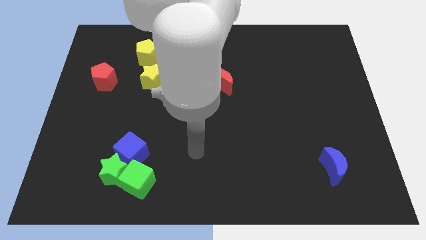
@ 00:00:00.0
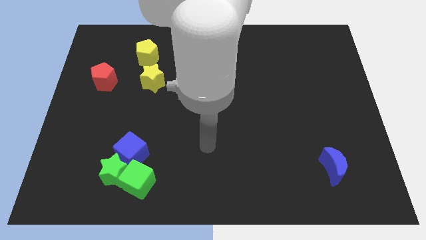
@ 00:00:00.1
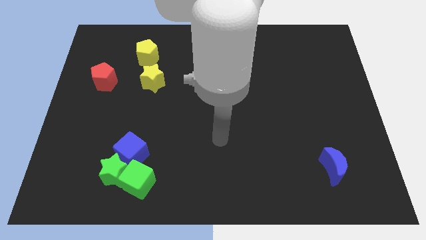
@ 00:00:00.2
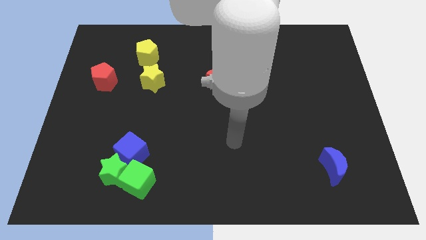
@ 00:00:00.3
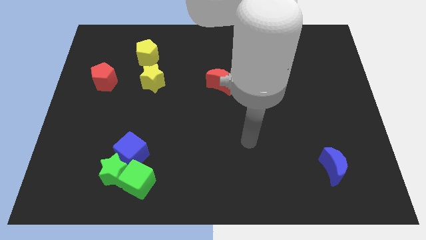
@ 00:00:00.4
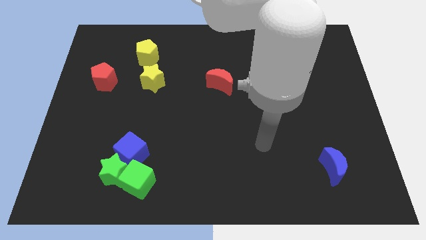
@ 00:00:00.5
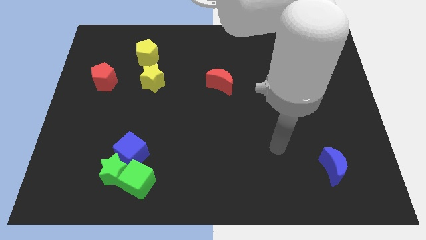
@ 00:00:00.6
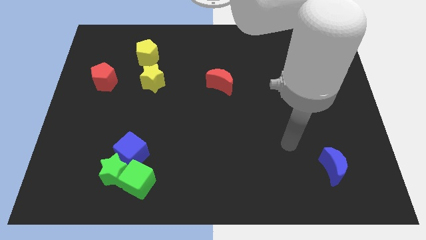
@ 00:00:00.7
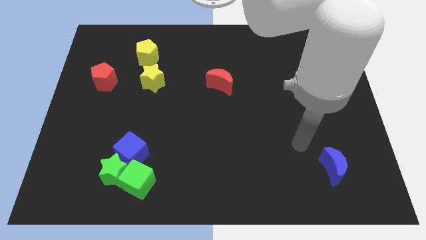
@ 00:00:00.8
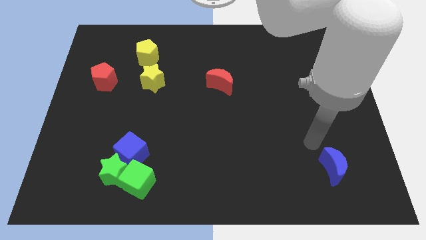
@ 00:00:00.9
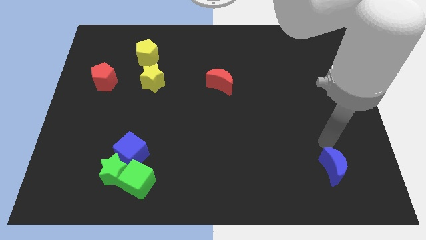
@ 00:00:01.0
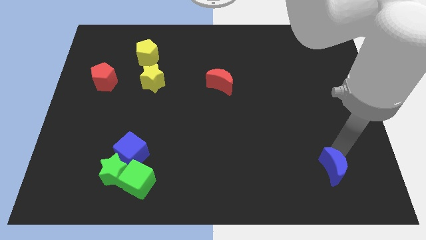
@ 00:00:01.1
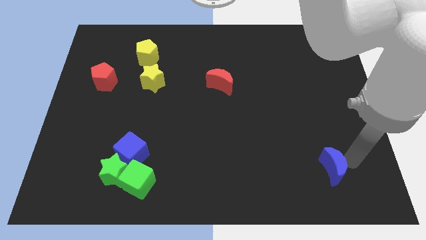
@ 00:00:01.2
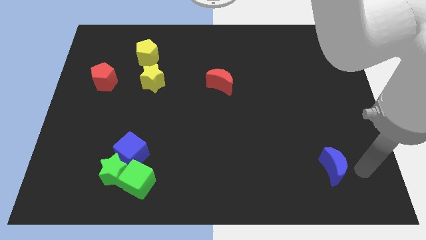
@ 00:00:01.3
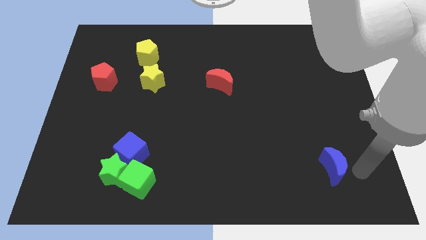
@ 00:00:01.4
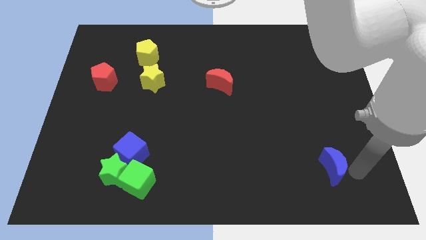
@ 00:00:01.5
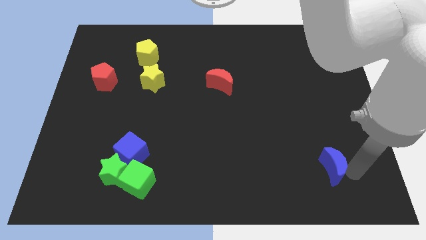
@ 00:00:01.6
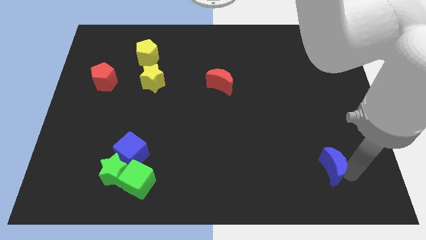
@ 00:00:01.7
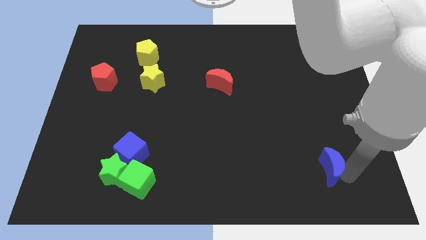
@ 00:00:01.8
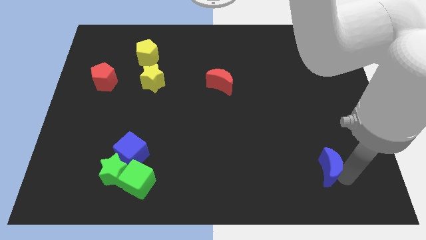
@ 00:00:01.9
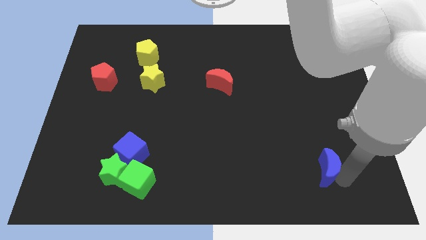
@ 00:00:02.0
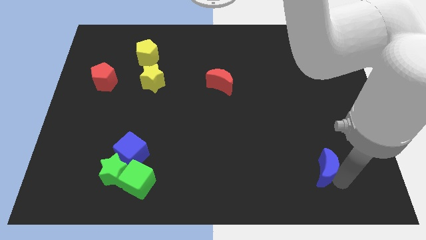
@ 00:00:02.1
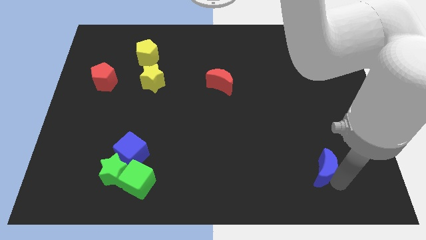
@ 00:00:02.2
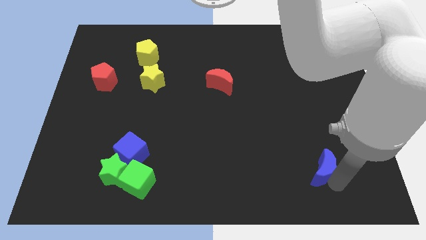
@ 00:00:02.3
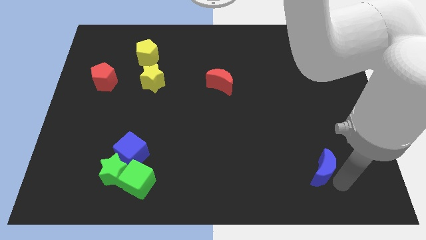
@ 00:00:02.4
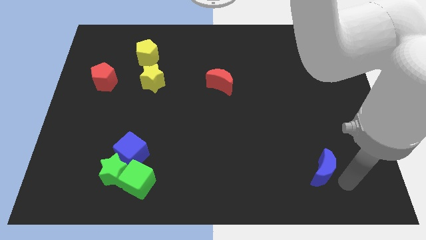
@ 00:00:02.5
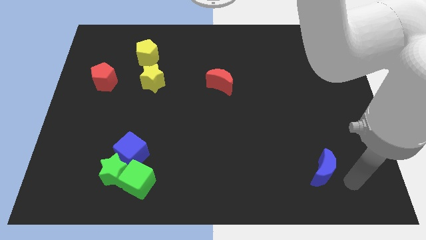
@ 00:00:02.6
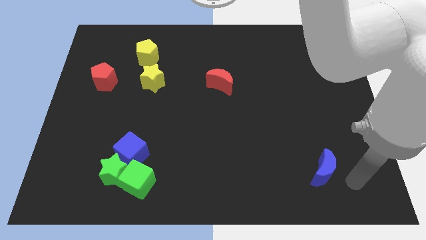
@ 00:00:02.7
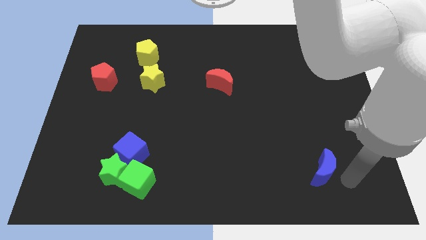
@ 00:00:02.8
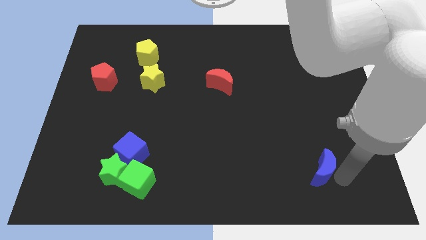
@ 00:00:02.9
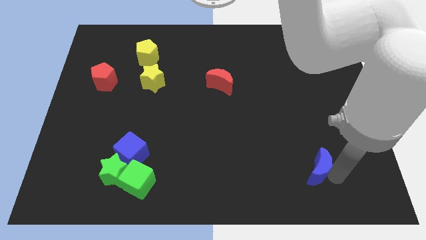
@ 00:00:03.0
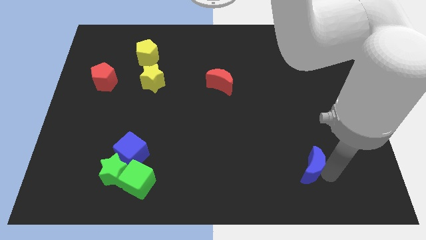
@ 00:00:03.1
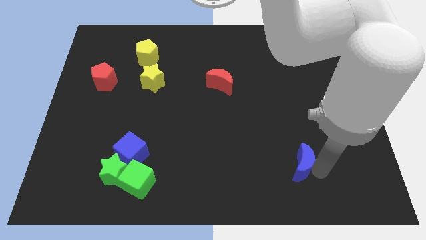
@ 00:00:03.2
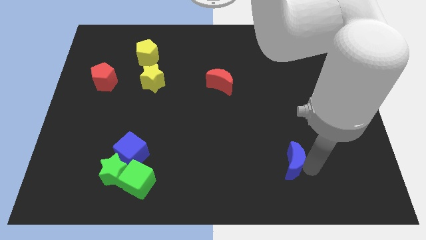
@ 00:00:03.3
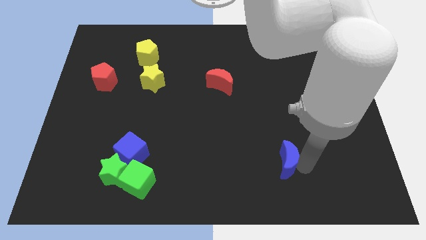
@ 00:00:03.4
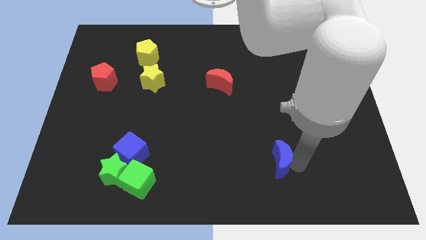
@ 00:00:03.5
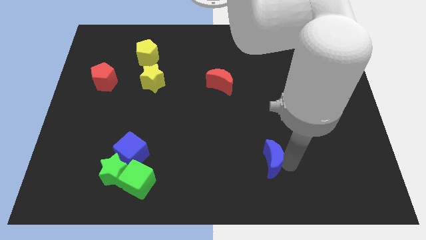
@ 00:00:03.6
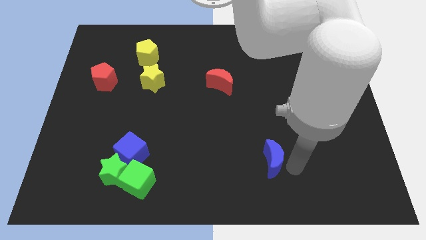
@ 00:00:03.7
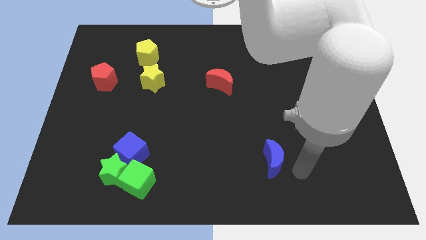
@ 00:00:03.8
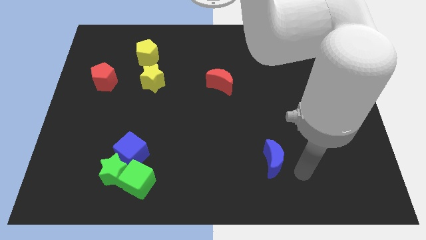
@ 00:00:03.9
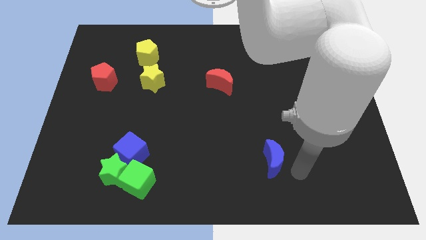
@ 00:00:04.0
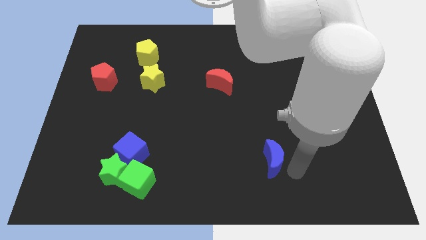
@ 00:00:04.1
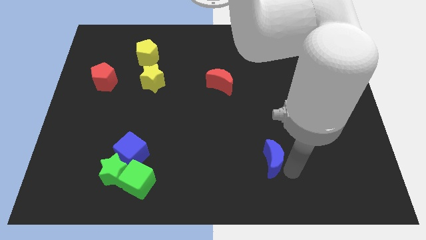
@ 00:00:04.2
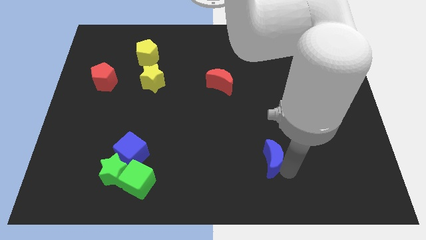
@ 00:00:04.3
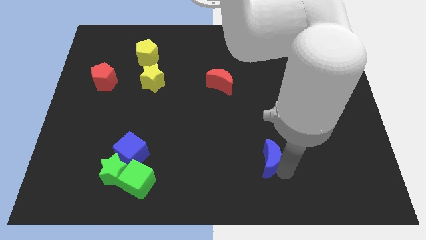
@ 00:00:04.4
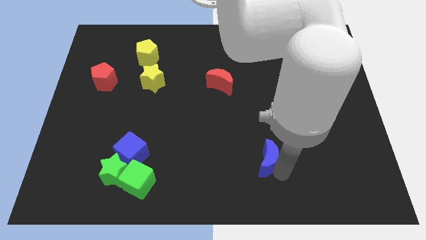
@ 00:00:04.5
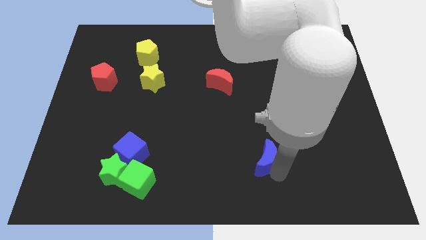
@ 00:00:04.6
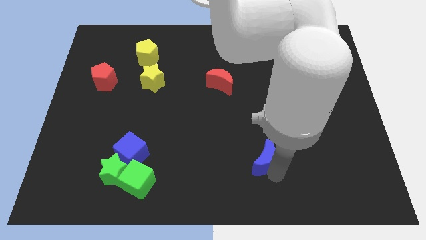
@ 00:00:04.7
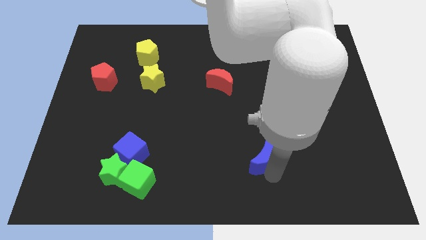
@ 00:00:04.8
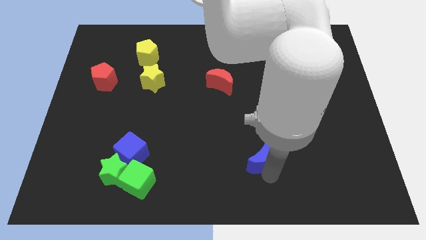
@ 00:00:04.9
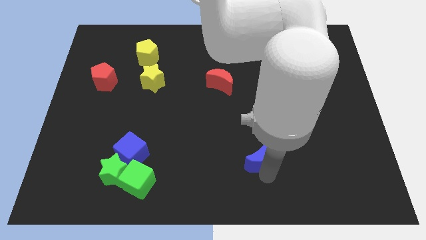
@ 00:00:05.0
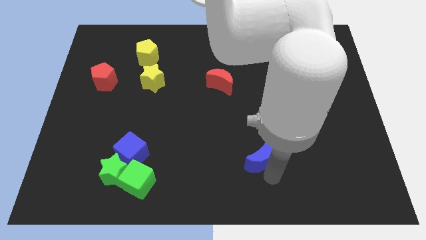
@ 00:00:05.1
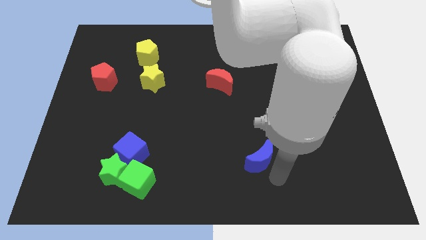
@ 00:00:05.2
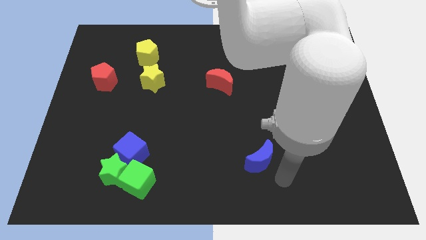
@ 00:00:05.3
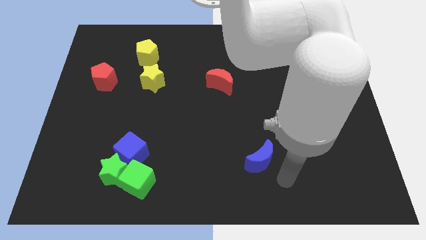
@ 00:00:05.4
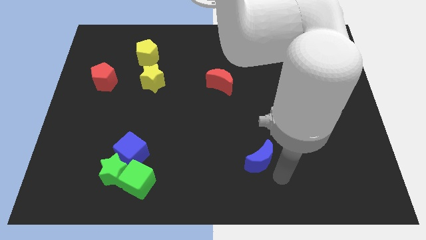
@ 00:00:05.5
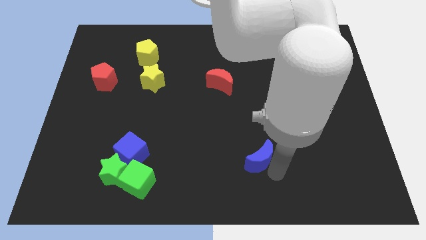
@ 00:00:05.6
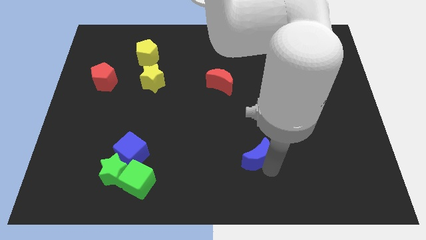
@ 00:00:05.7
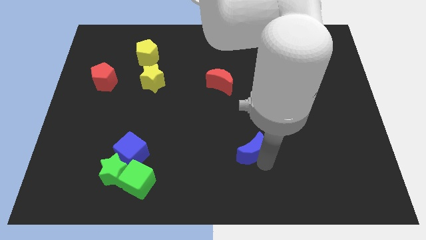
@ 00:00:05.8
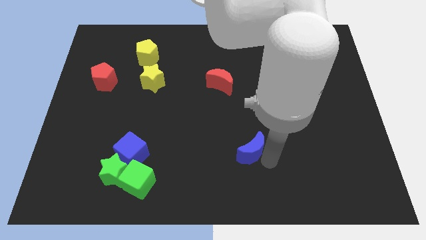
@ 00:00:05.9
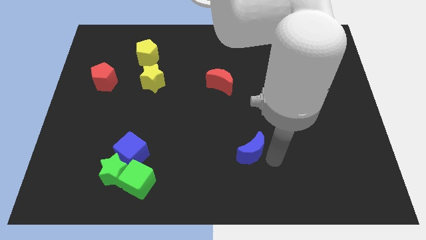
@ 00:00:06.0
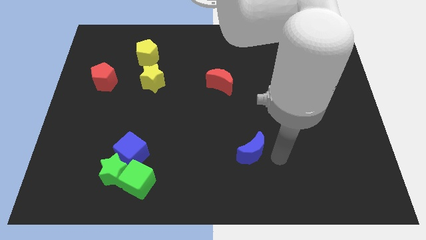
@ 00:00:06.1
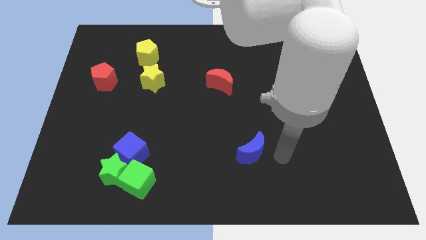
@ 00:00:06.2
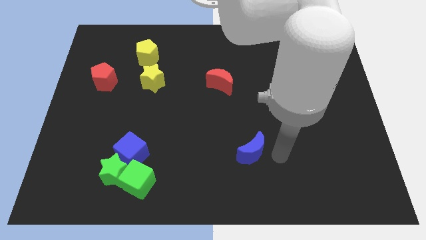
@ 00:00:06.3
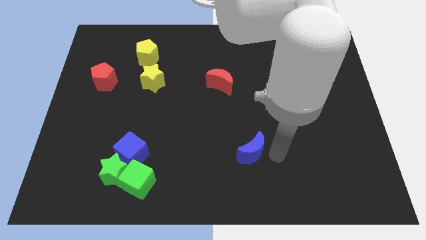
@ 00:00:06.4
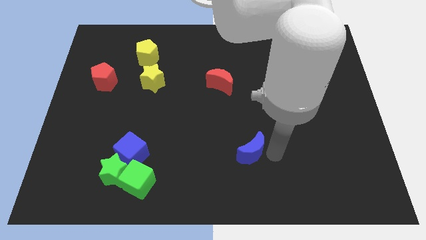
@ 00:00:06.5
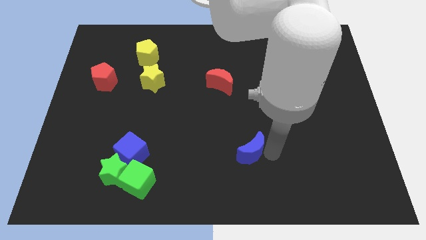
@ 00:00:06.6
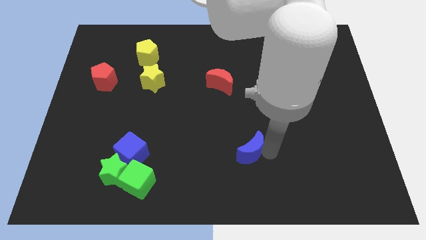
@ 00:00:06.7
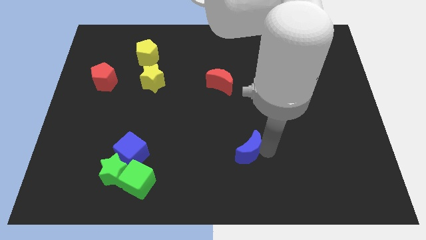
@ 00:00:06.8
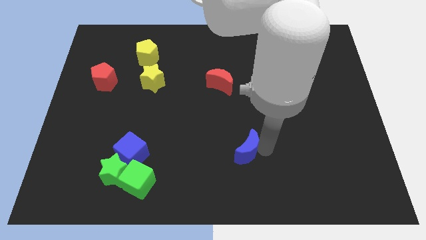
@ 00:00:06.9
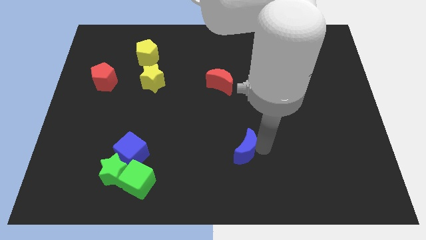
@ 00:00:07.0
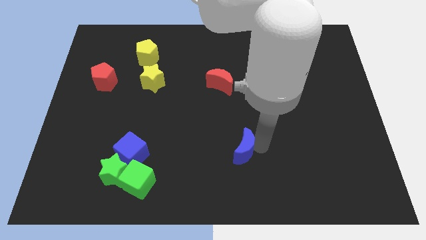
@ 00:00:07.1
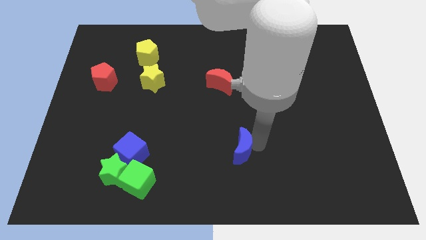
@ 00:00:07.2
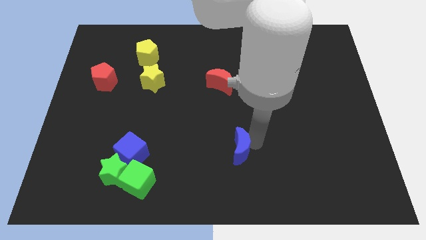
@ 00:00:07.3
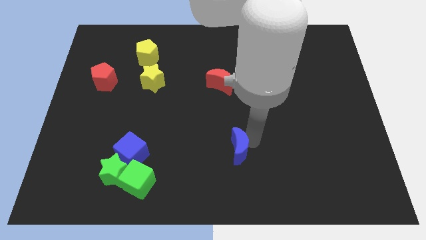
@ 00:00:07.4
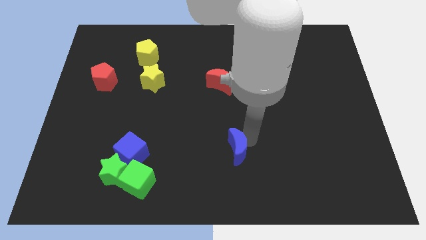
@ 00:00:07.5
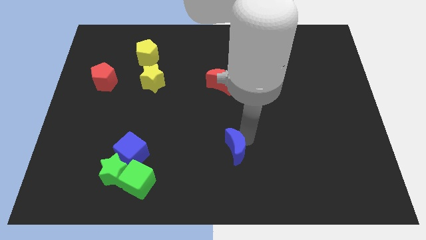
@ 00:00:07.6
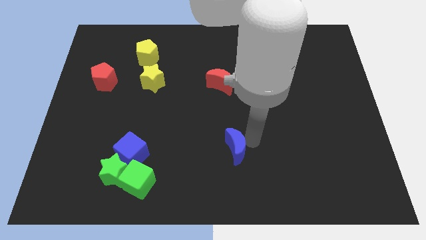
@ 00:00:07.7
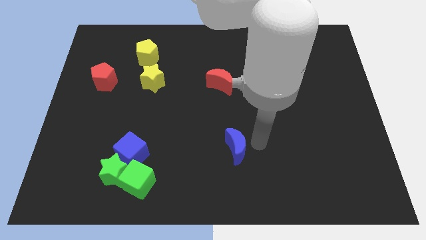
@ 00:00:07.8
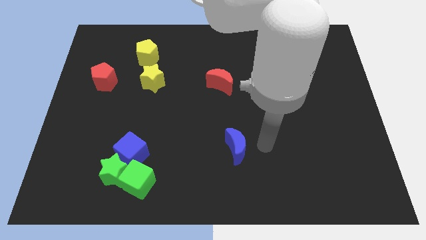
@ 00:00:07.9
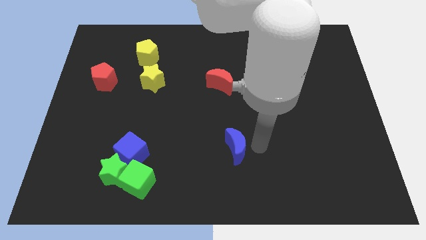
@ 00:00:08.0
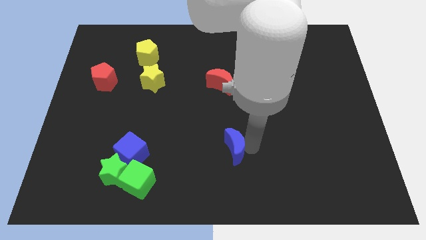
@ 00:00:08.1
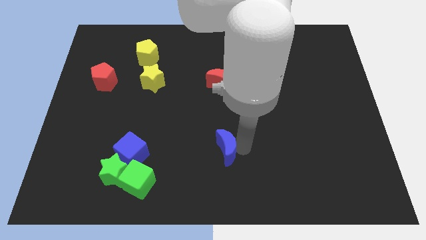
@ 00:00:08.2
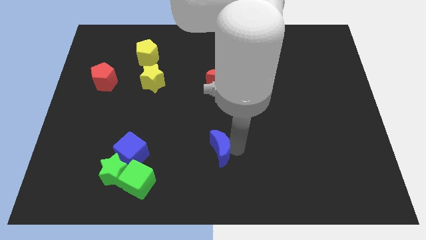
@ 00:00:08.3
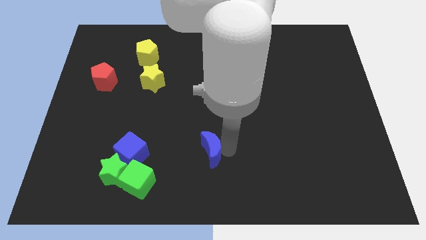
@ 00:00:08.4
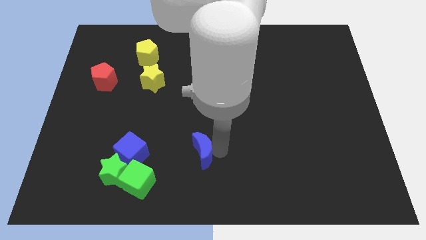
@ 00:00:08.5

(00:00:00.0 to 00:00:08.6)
push the blue moon to the right of the blue cube
